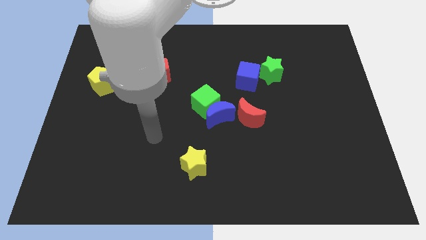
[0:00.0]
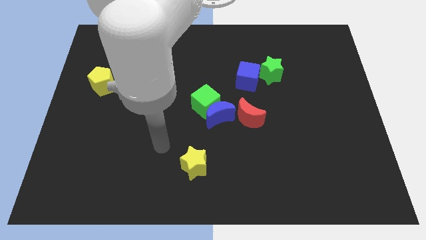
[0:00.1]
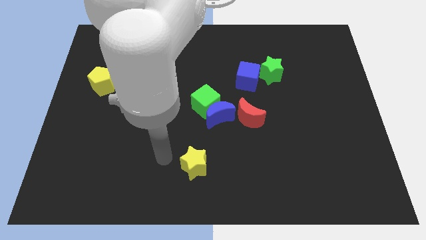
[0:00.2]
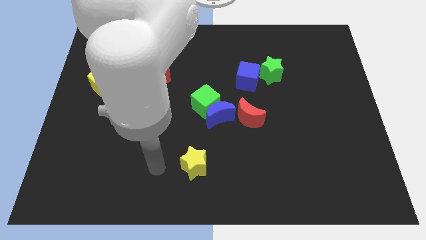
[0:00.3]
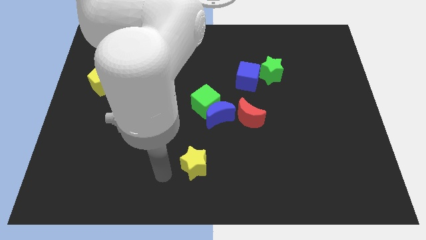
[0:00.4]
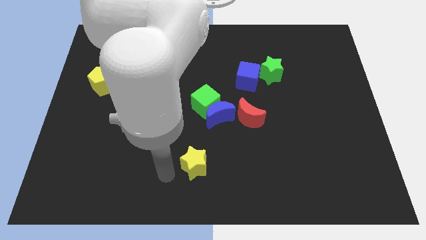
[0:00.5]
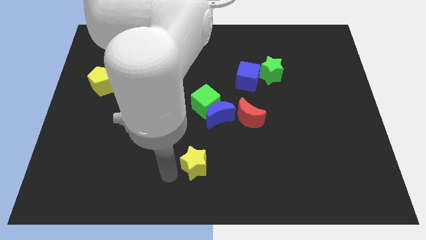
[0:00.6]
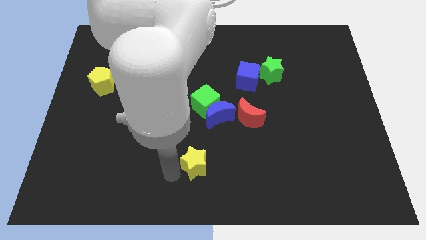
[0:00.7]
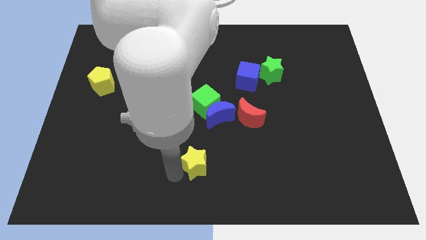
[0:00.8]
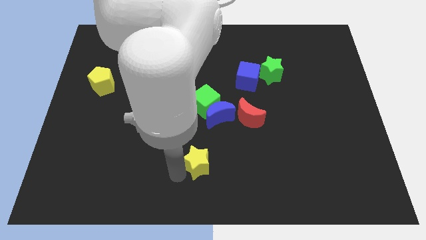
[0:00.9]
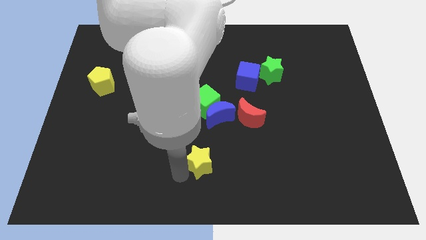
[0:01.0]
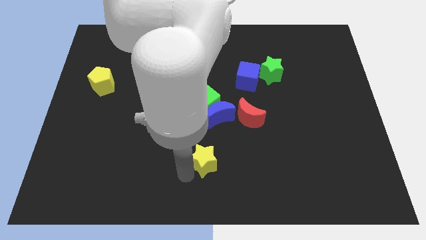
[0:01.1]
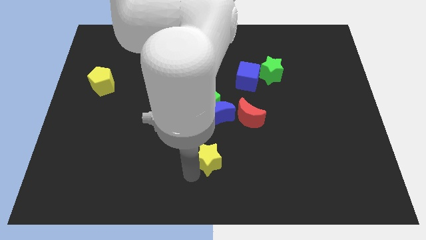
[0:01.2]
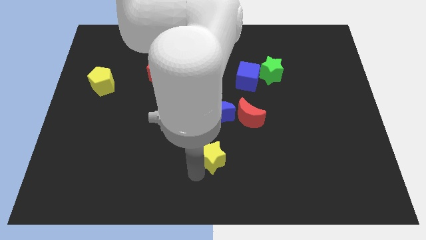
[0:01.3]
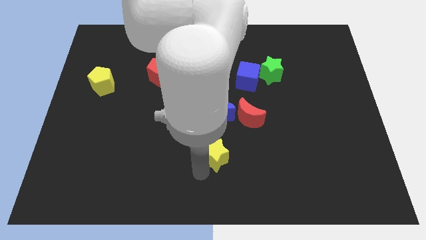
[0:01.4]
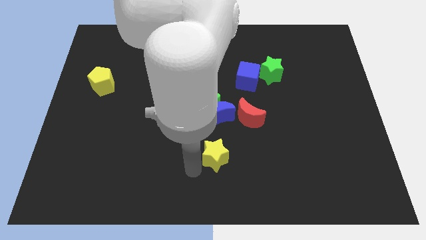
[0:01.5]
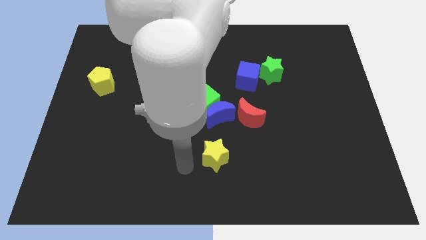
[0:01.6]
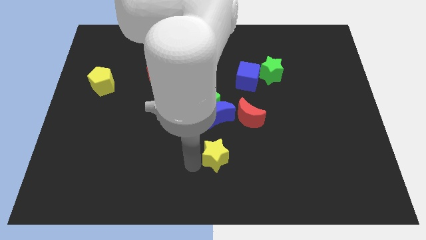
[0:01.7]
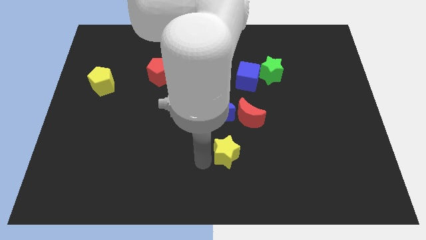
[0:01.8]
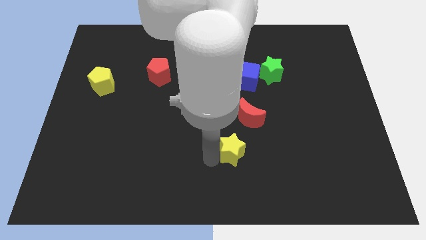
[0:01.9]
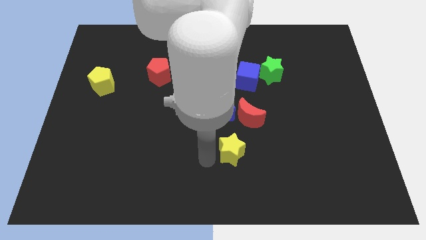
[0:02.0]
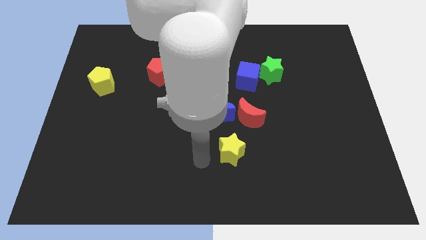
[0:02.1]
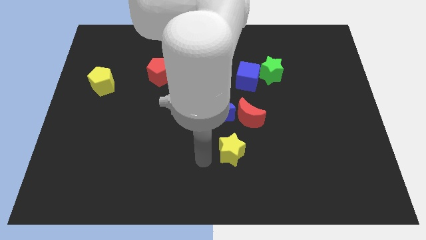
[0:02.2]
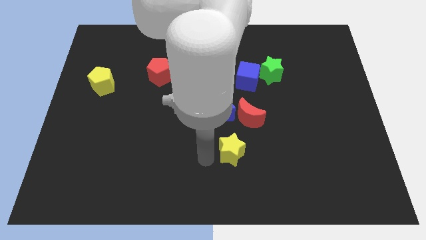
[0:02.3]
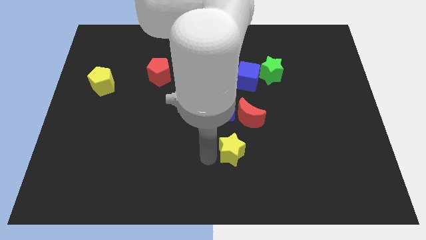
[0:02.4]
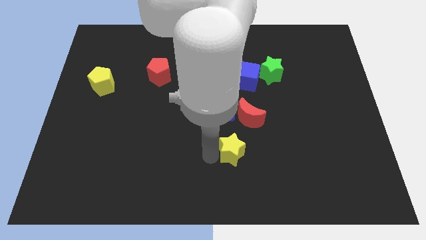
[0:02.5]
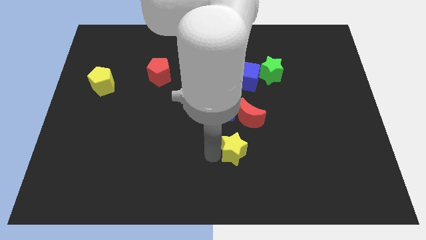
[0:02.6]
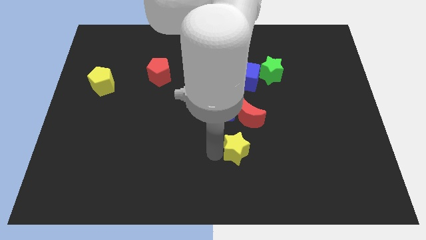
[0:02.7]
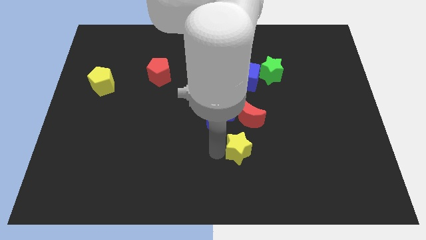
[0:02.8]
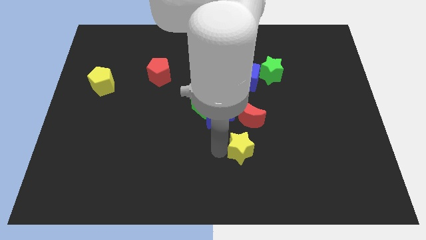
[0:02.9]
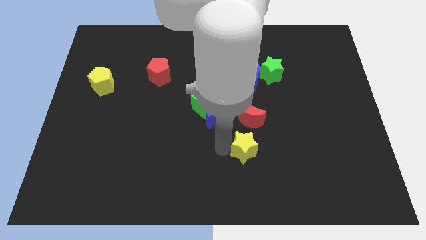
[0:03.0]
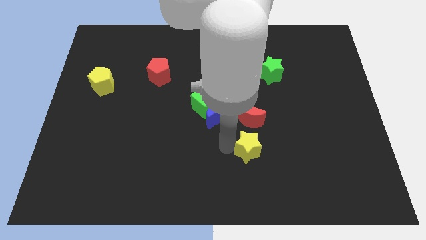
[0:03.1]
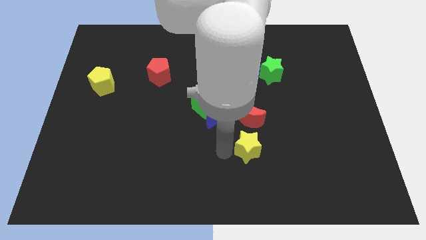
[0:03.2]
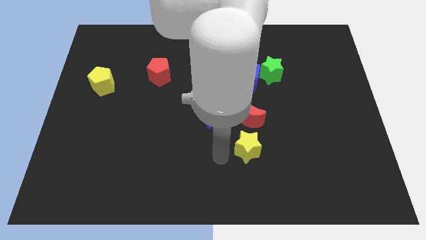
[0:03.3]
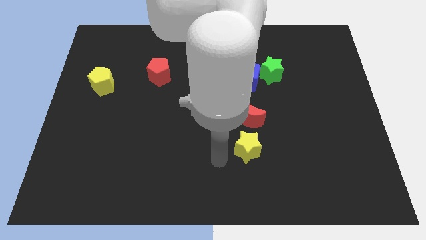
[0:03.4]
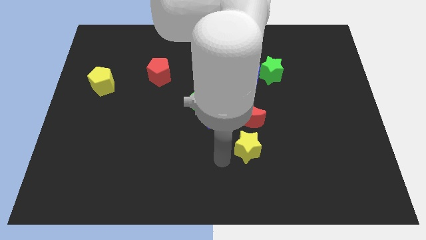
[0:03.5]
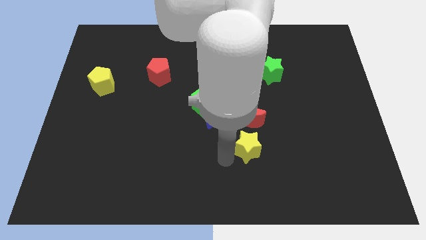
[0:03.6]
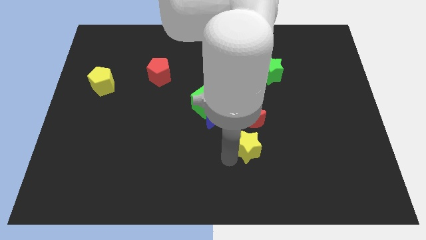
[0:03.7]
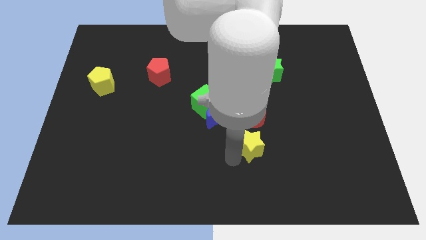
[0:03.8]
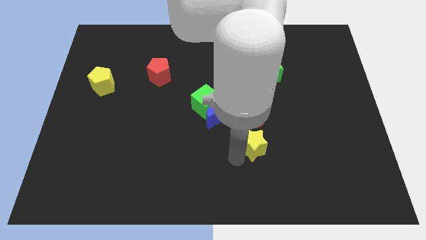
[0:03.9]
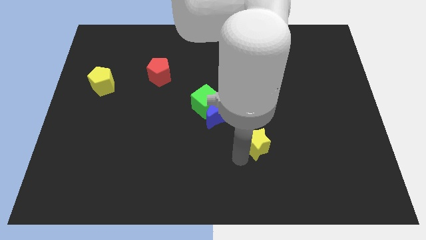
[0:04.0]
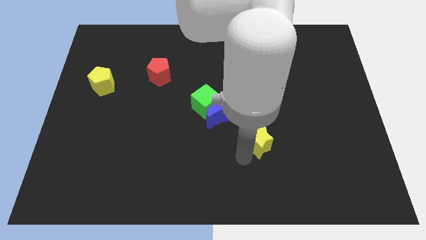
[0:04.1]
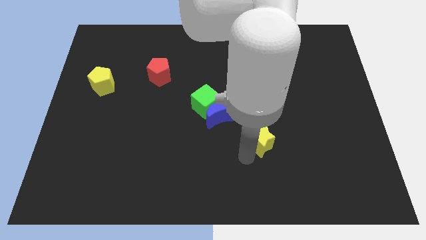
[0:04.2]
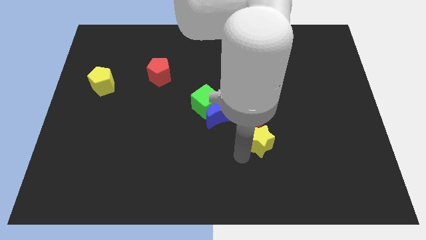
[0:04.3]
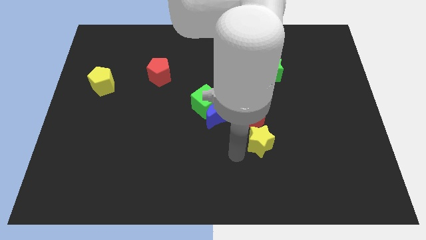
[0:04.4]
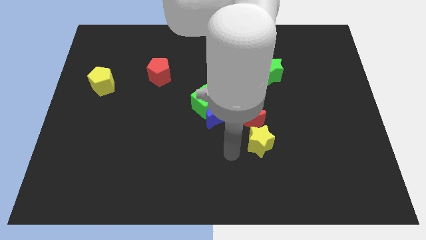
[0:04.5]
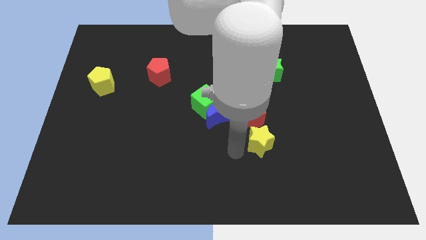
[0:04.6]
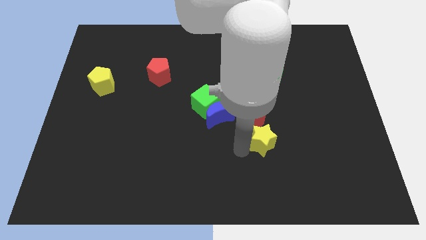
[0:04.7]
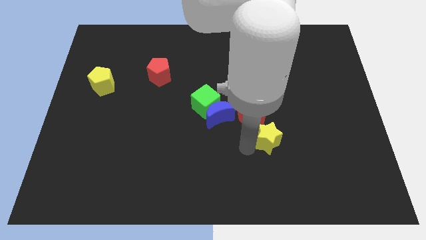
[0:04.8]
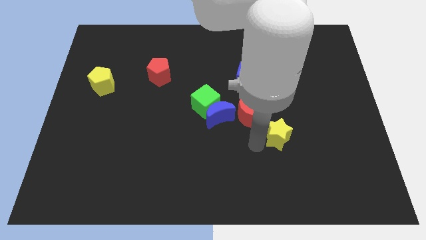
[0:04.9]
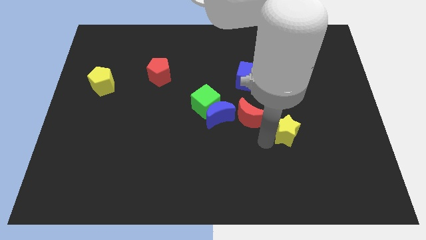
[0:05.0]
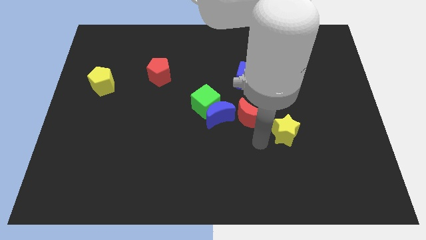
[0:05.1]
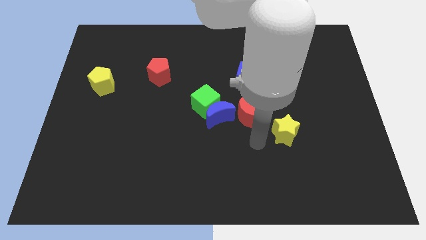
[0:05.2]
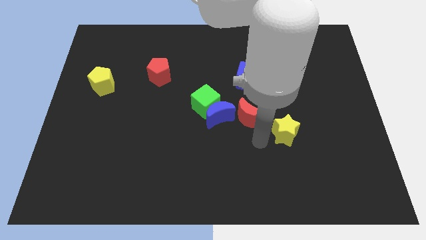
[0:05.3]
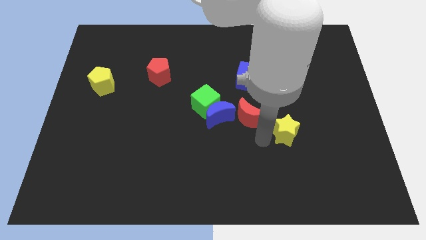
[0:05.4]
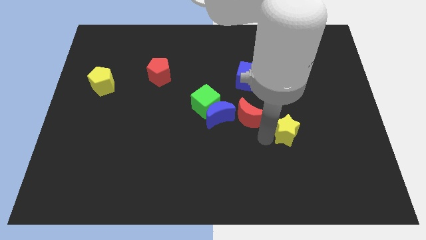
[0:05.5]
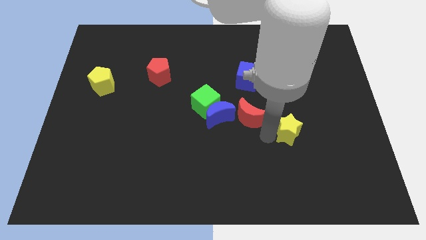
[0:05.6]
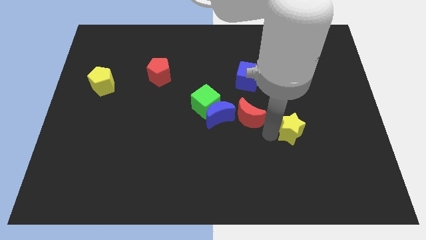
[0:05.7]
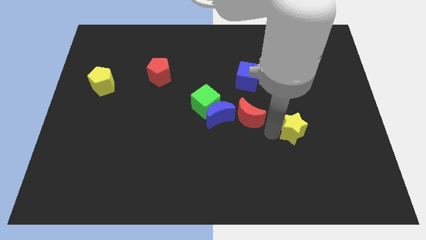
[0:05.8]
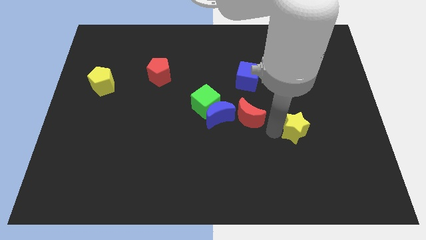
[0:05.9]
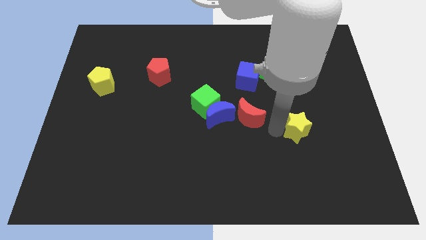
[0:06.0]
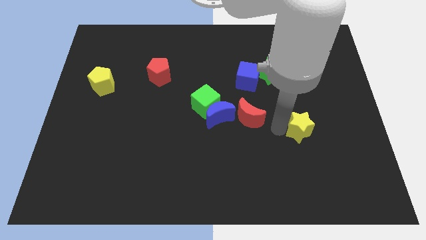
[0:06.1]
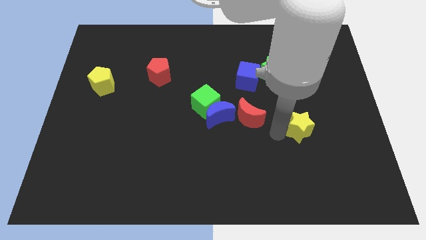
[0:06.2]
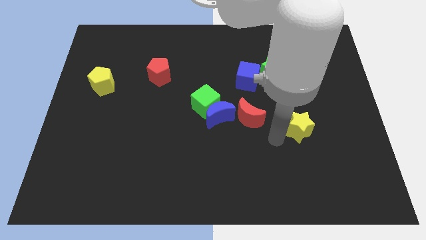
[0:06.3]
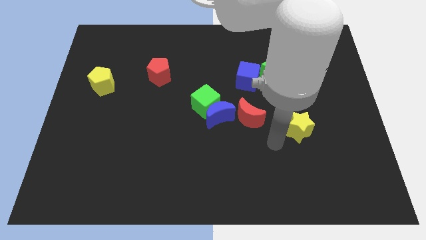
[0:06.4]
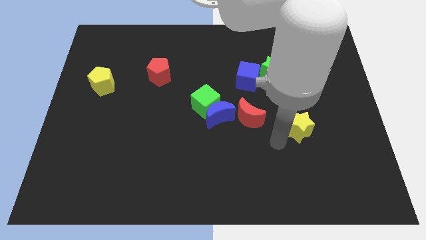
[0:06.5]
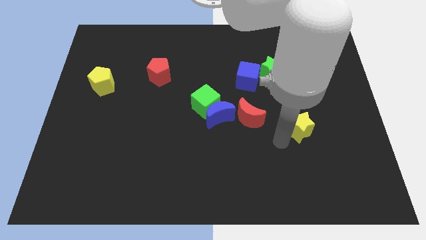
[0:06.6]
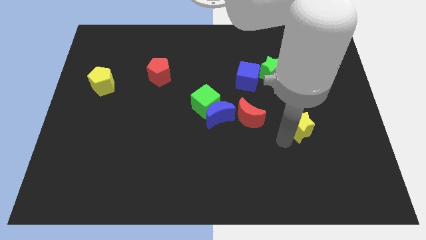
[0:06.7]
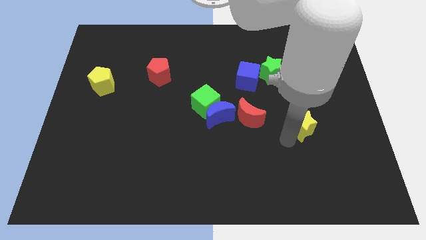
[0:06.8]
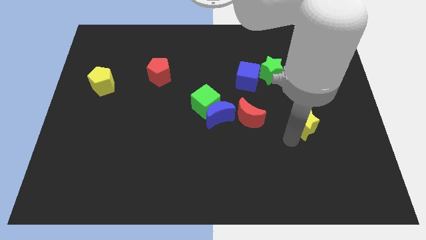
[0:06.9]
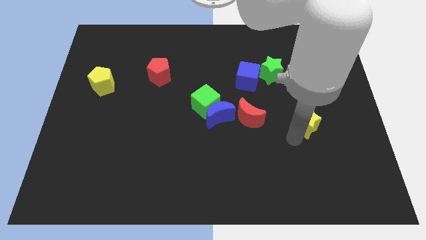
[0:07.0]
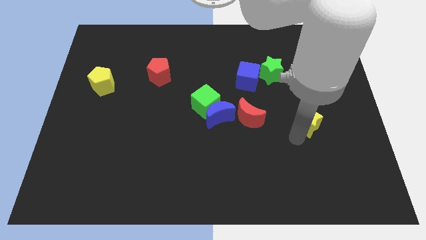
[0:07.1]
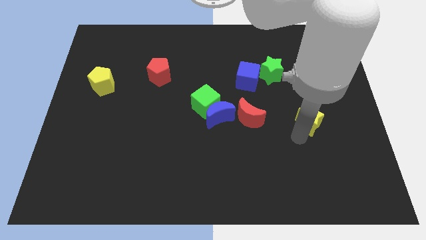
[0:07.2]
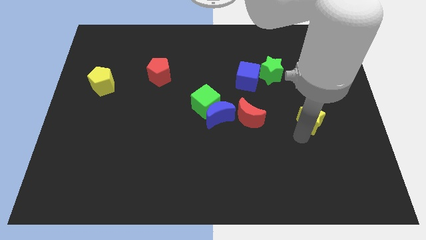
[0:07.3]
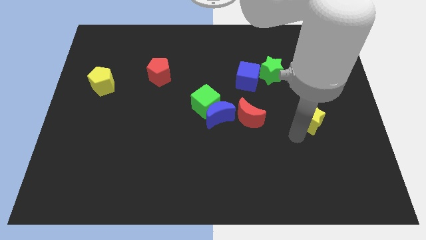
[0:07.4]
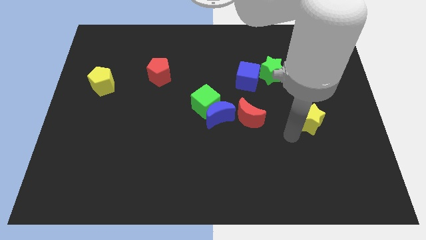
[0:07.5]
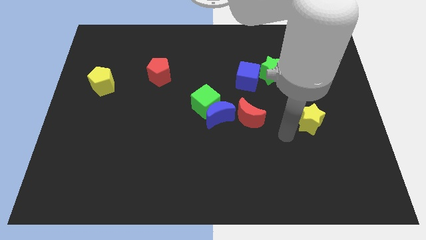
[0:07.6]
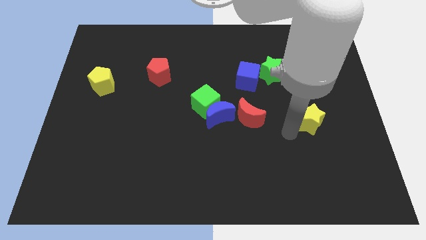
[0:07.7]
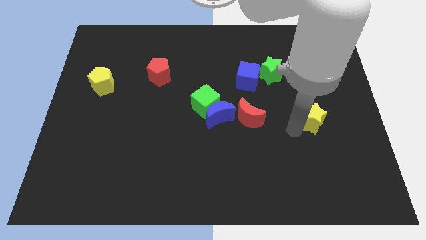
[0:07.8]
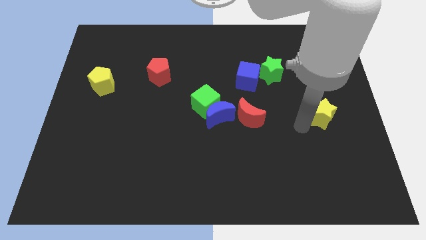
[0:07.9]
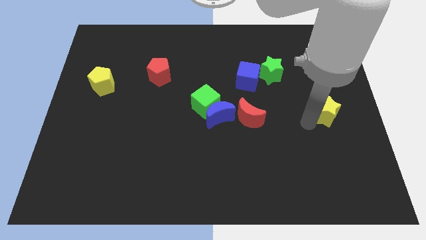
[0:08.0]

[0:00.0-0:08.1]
put the yellow star to the right side
